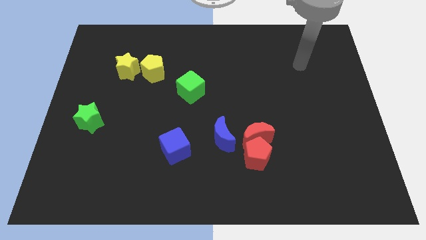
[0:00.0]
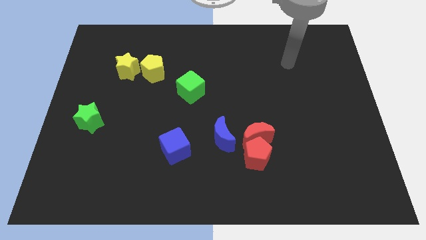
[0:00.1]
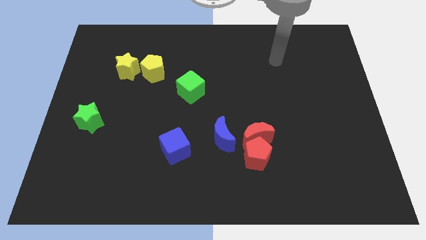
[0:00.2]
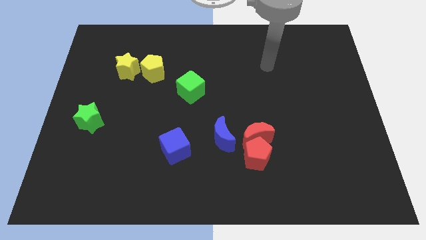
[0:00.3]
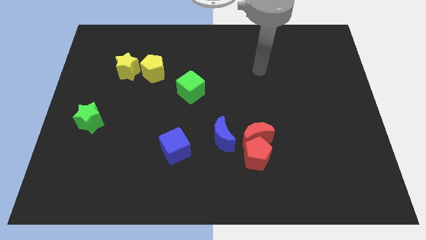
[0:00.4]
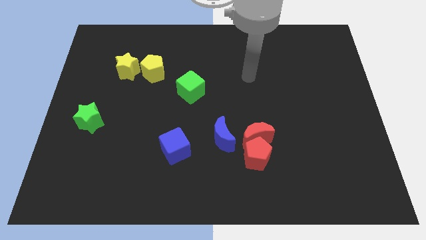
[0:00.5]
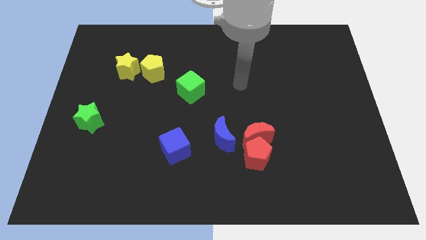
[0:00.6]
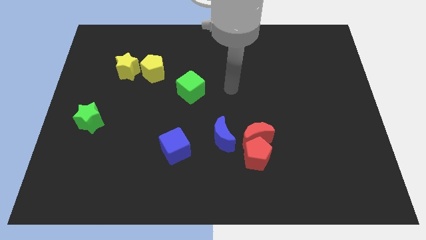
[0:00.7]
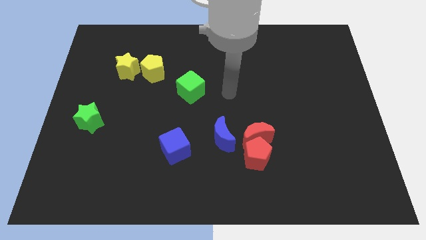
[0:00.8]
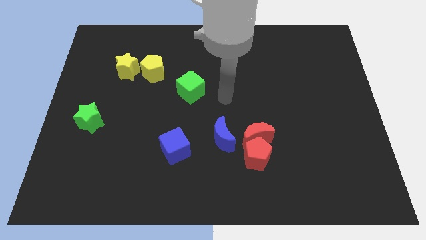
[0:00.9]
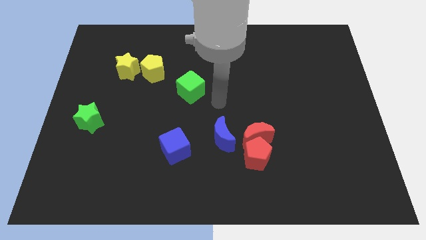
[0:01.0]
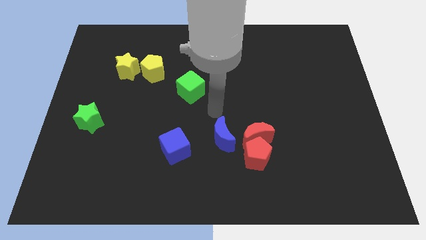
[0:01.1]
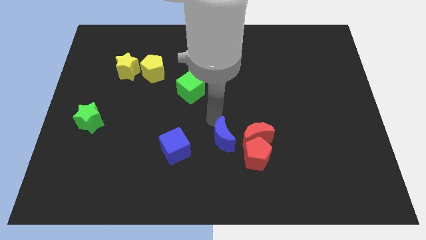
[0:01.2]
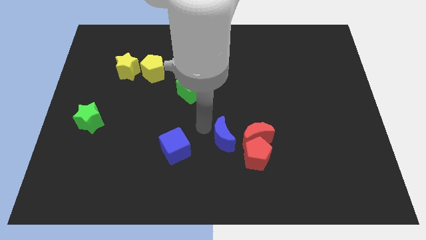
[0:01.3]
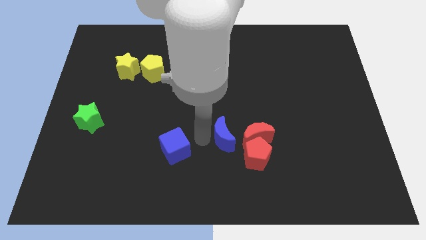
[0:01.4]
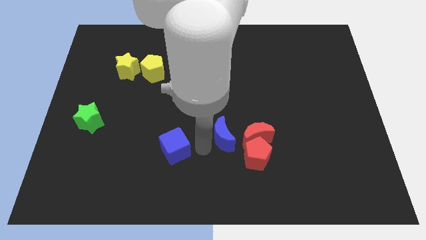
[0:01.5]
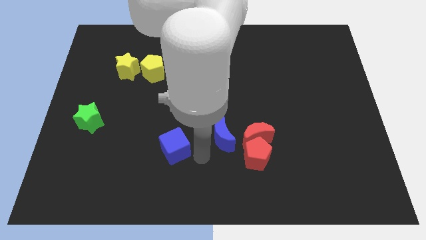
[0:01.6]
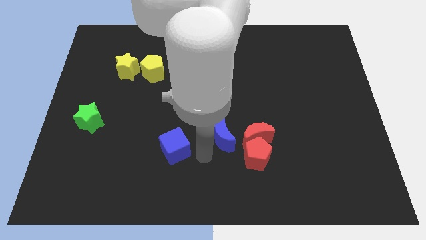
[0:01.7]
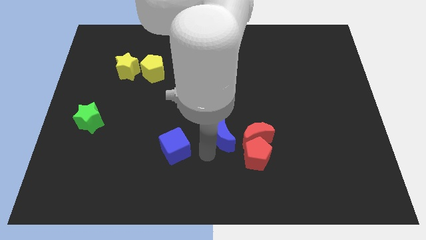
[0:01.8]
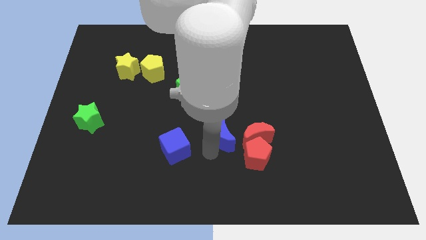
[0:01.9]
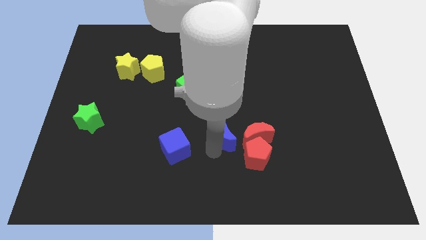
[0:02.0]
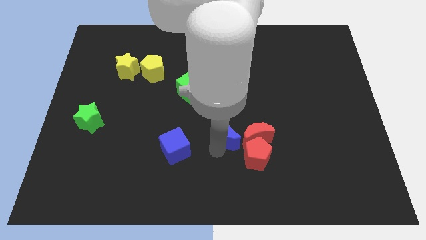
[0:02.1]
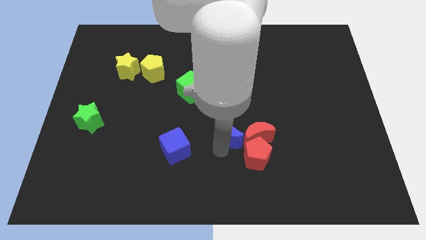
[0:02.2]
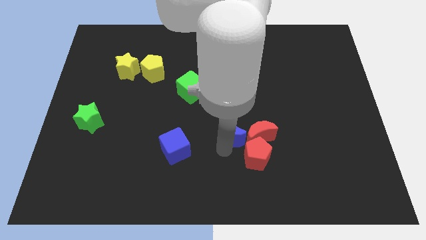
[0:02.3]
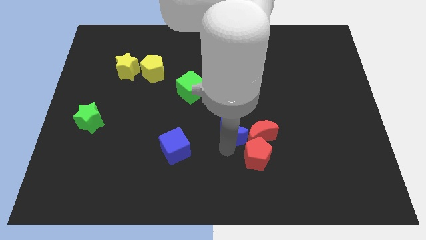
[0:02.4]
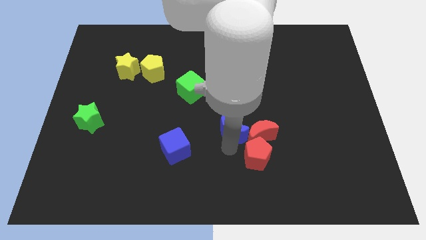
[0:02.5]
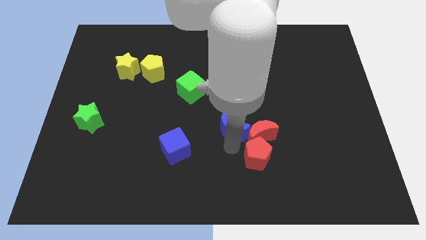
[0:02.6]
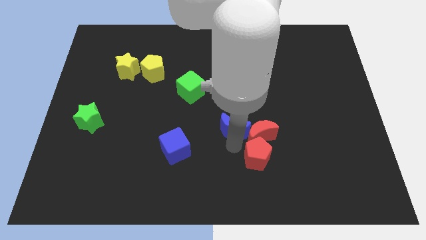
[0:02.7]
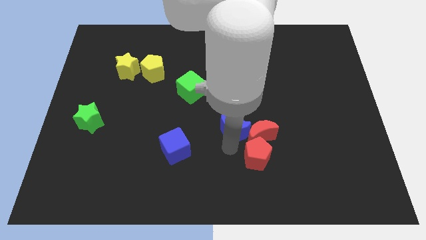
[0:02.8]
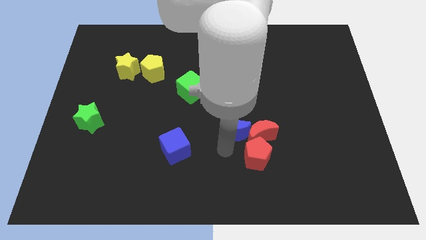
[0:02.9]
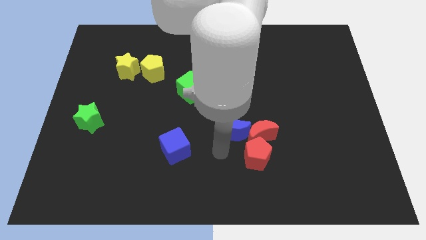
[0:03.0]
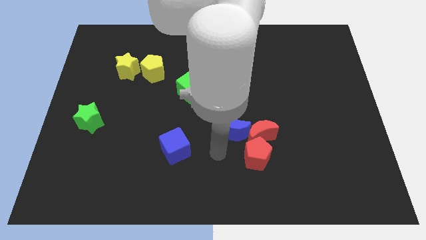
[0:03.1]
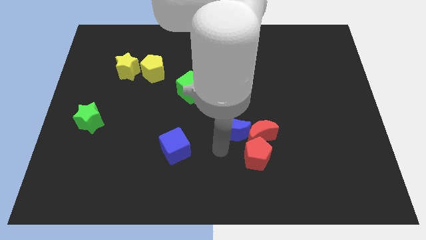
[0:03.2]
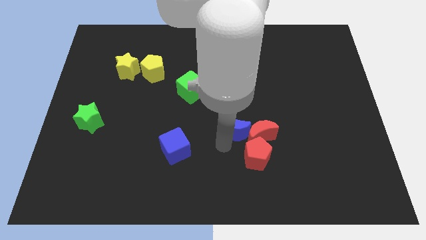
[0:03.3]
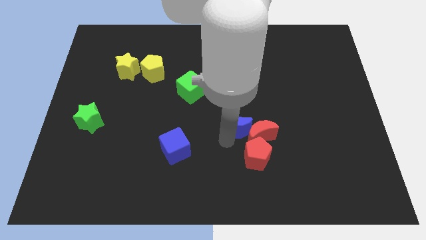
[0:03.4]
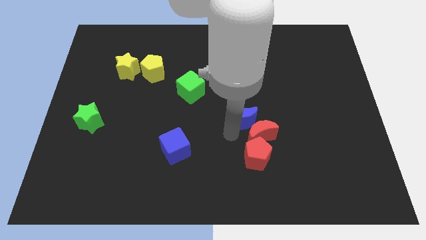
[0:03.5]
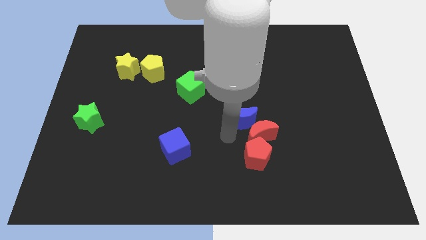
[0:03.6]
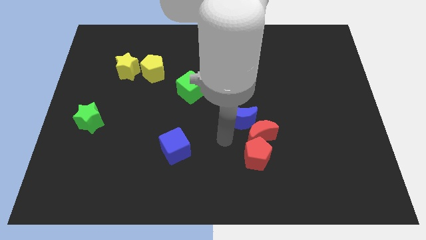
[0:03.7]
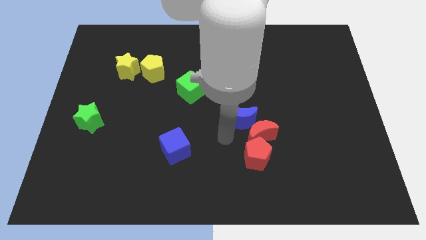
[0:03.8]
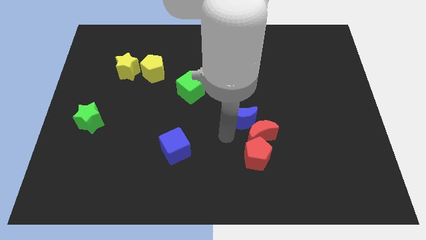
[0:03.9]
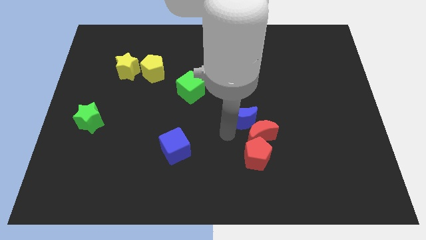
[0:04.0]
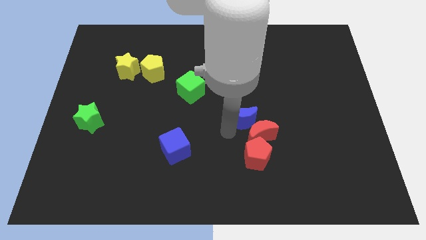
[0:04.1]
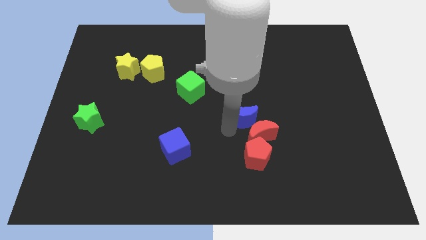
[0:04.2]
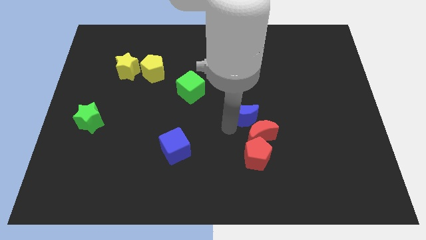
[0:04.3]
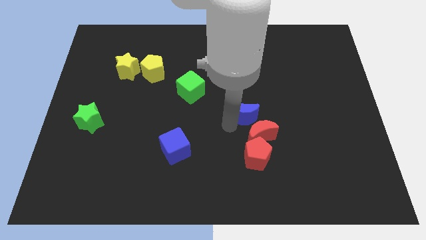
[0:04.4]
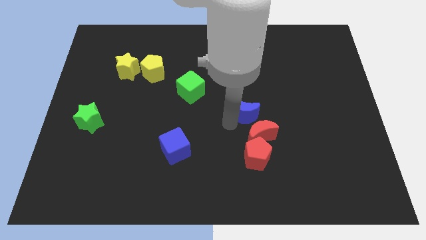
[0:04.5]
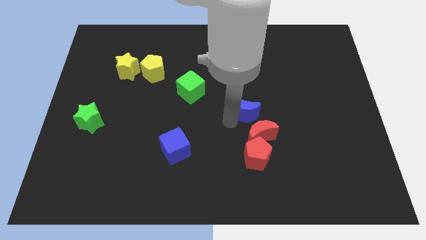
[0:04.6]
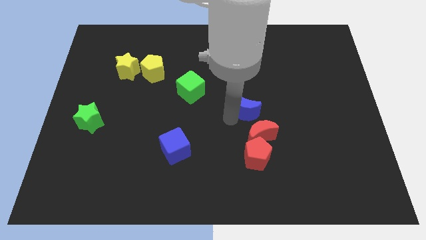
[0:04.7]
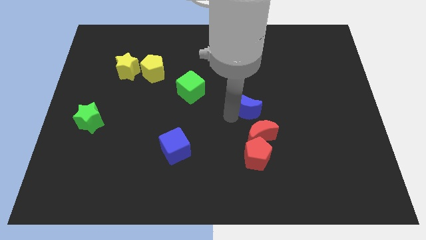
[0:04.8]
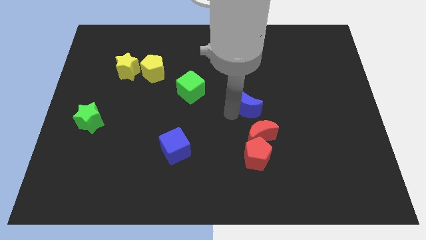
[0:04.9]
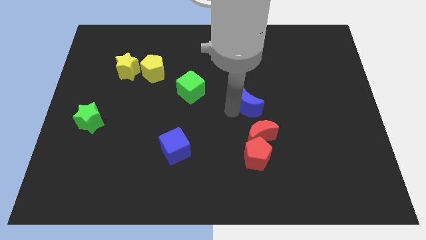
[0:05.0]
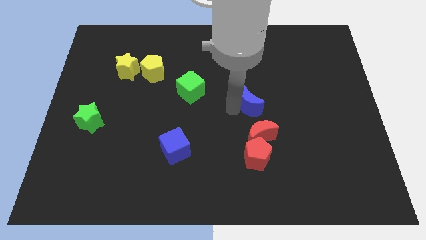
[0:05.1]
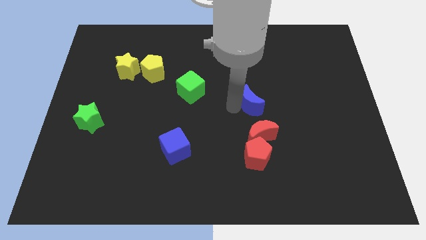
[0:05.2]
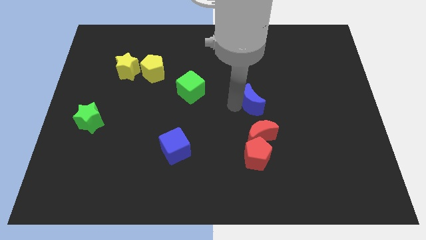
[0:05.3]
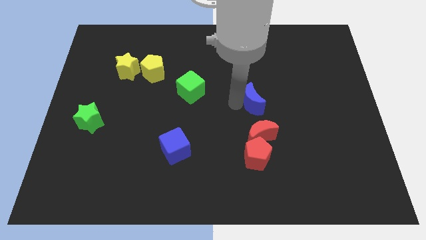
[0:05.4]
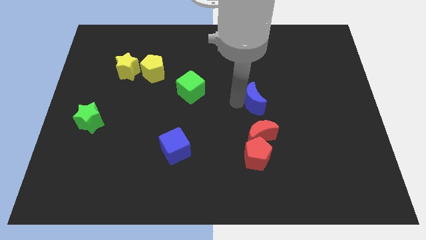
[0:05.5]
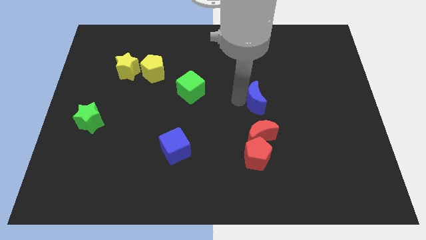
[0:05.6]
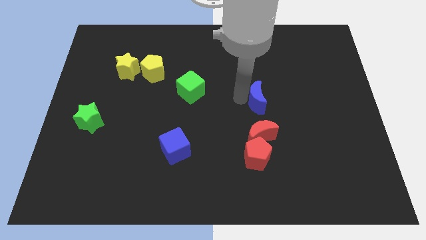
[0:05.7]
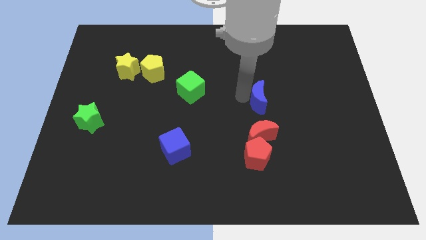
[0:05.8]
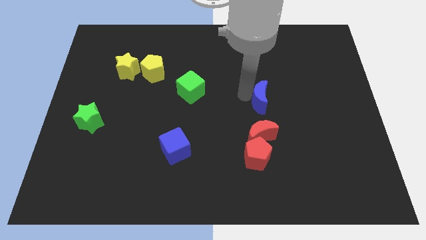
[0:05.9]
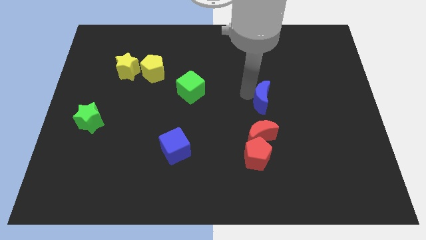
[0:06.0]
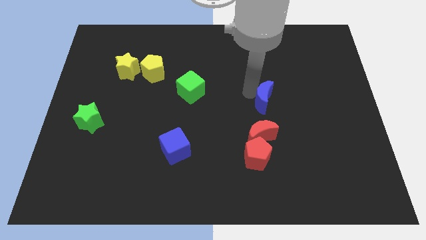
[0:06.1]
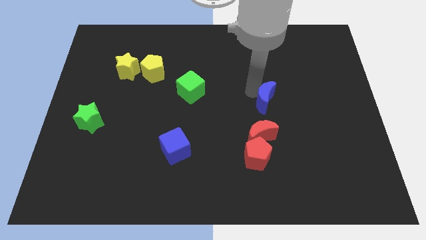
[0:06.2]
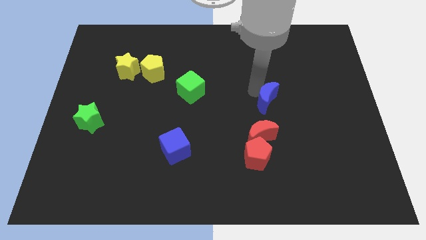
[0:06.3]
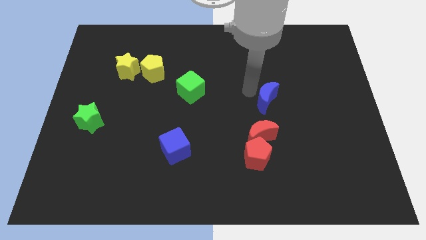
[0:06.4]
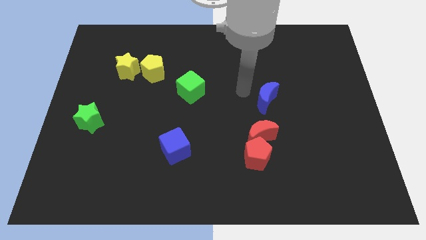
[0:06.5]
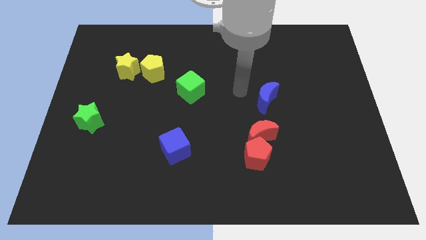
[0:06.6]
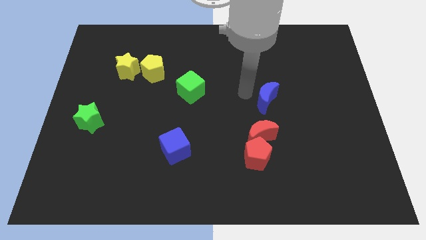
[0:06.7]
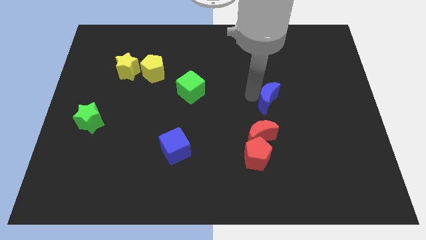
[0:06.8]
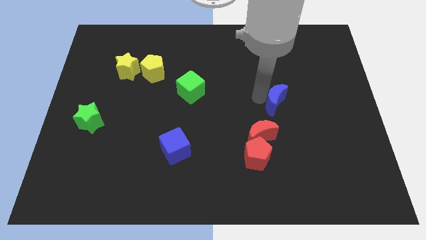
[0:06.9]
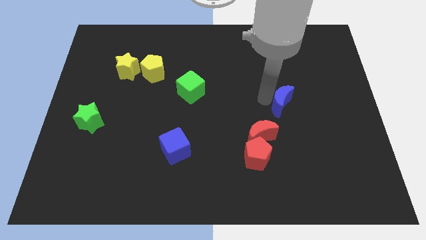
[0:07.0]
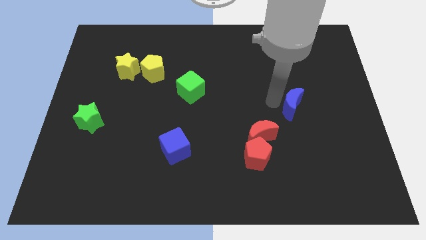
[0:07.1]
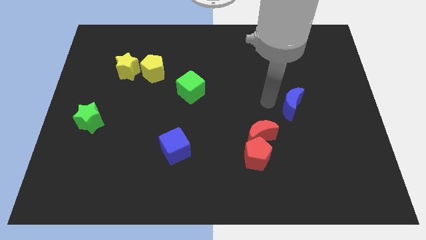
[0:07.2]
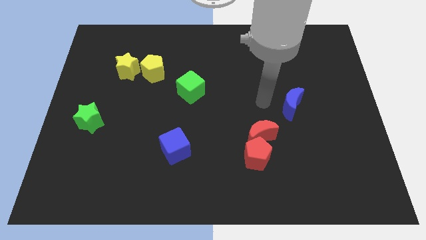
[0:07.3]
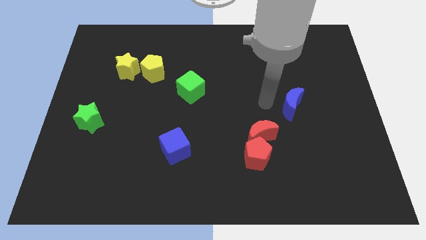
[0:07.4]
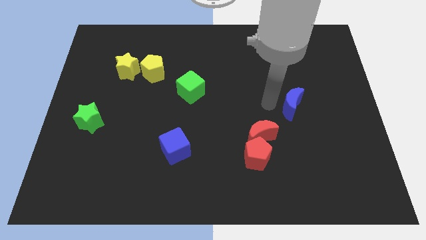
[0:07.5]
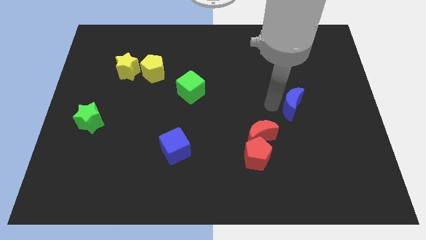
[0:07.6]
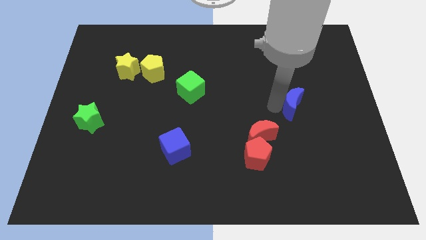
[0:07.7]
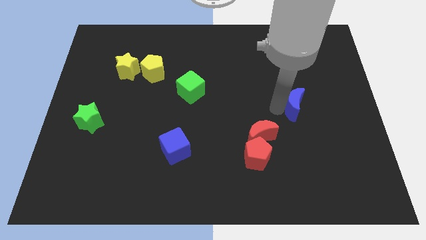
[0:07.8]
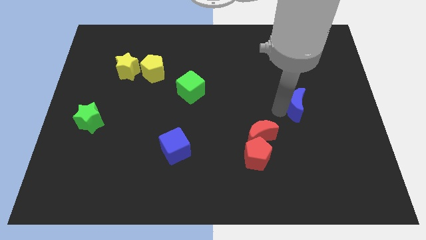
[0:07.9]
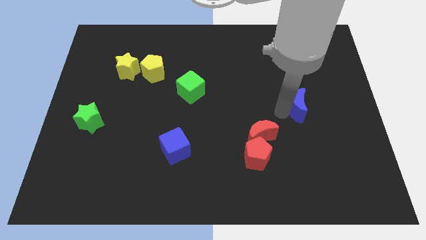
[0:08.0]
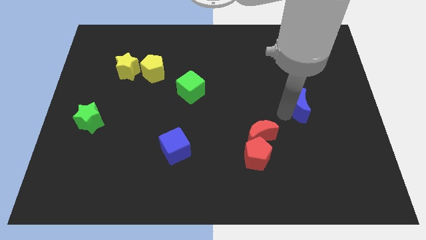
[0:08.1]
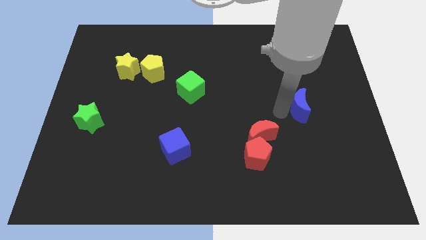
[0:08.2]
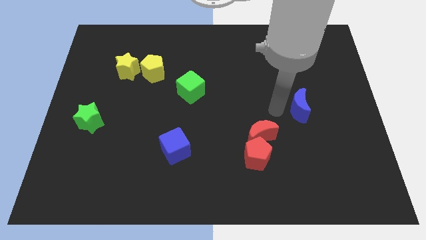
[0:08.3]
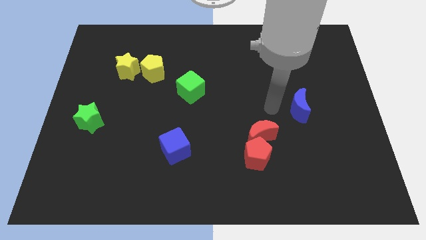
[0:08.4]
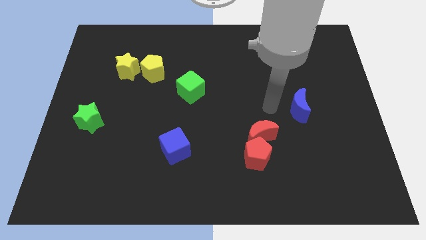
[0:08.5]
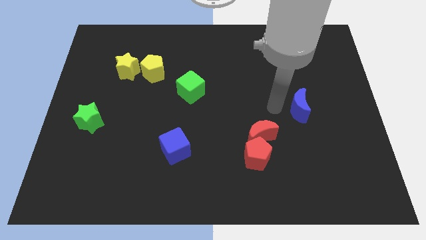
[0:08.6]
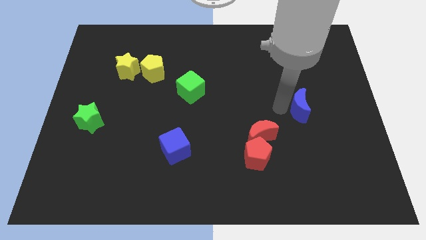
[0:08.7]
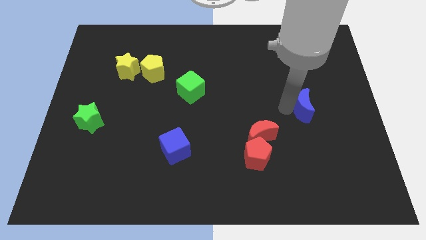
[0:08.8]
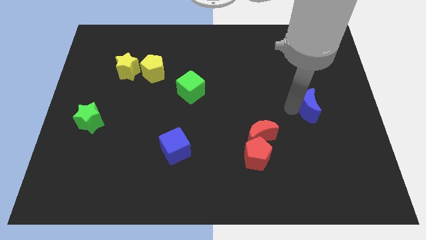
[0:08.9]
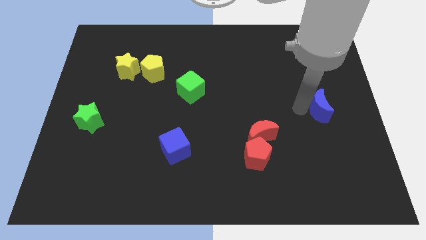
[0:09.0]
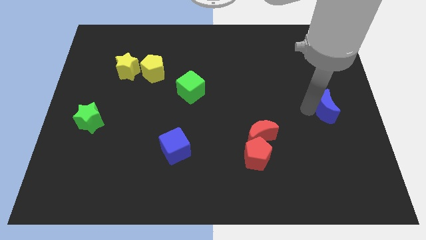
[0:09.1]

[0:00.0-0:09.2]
slide the blue moon to the center right
